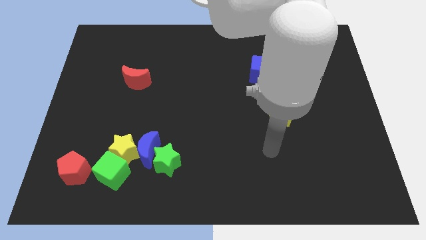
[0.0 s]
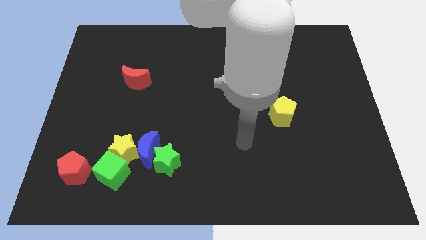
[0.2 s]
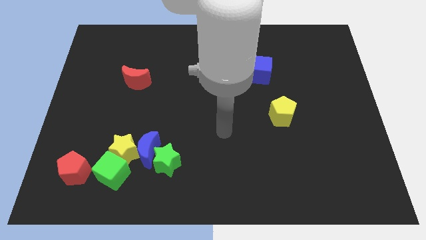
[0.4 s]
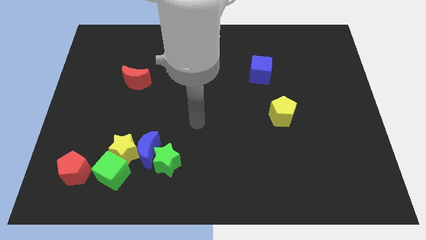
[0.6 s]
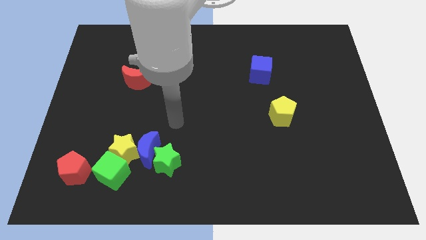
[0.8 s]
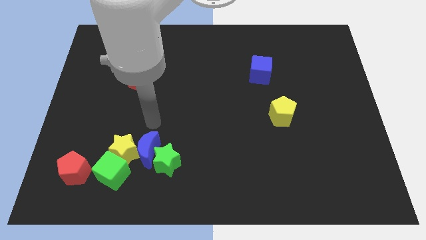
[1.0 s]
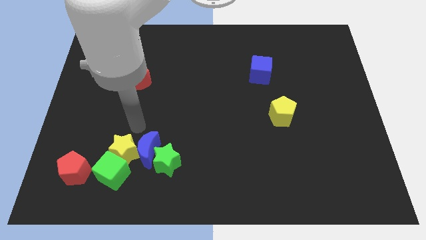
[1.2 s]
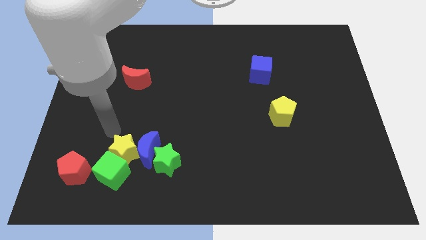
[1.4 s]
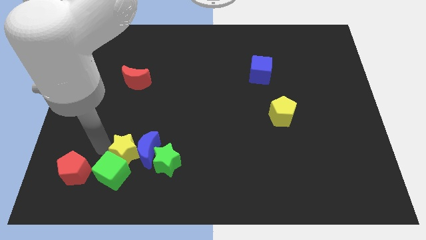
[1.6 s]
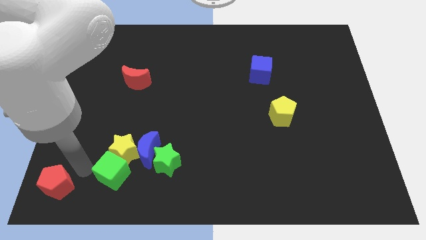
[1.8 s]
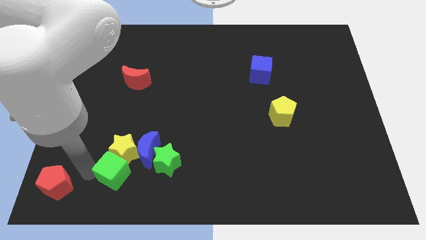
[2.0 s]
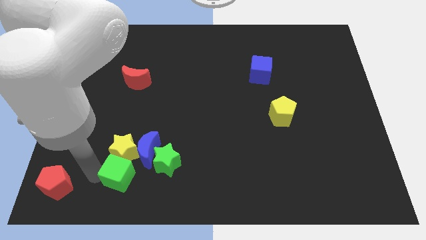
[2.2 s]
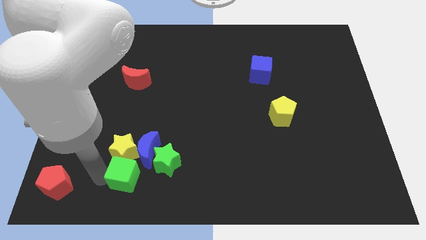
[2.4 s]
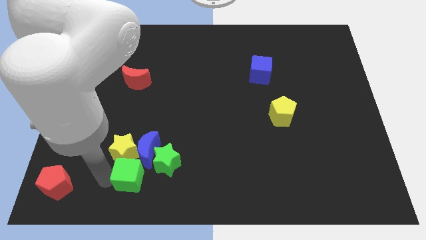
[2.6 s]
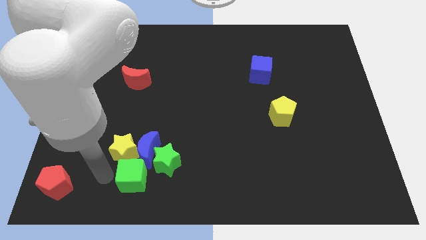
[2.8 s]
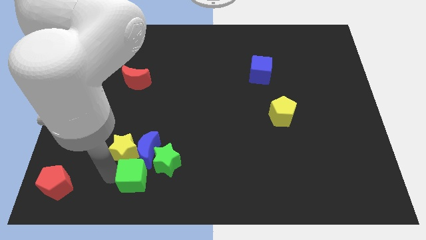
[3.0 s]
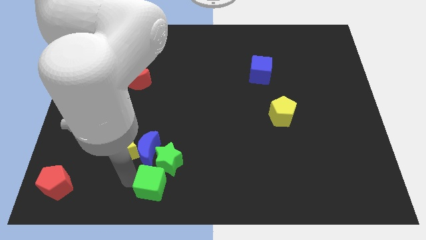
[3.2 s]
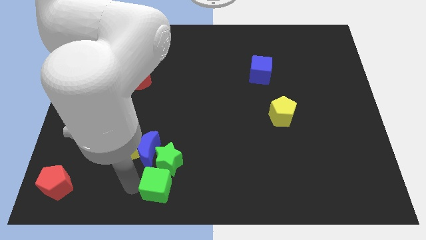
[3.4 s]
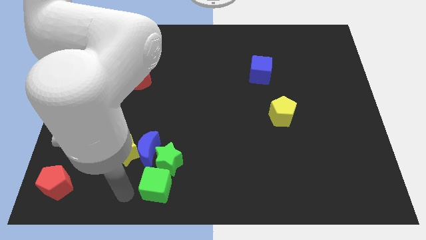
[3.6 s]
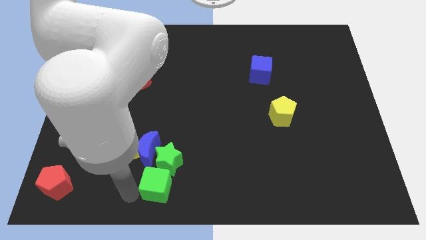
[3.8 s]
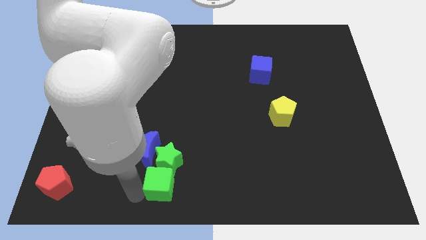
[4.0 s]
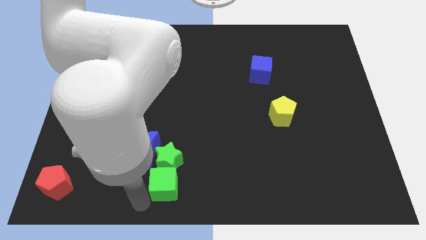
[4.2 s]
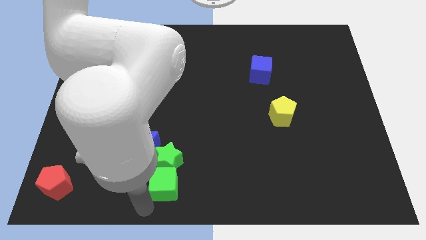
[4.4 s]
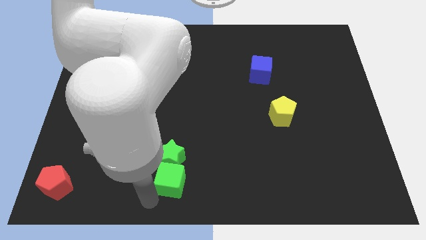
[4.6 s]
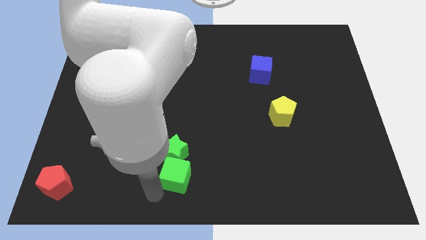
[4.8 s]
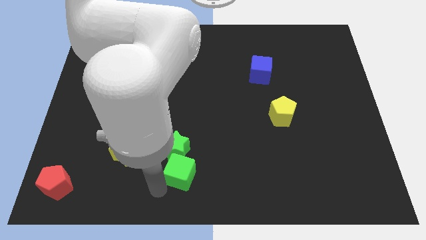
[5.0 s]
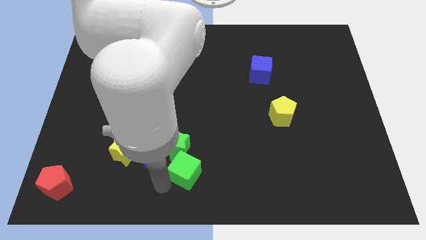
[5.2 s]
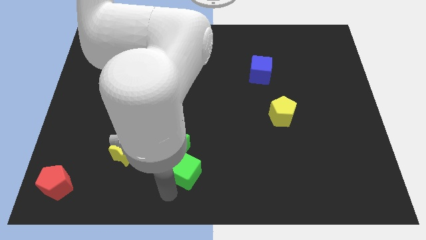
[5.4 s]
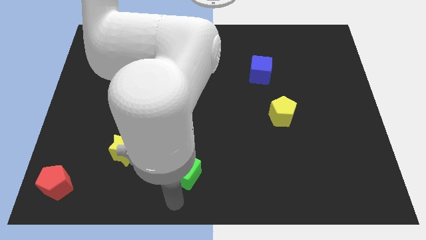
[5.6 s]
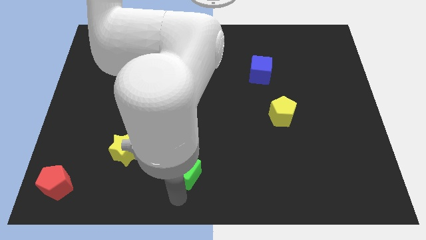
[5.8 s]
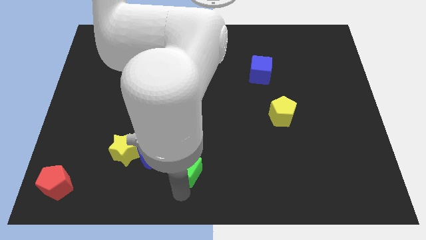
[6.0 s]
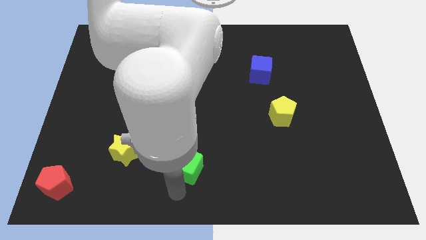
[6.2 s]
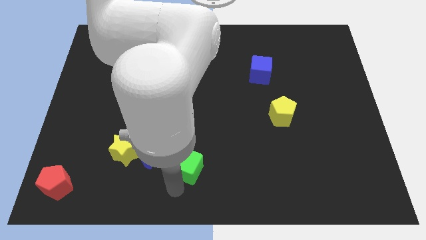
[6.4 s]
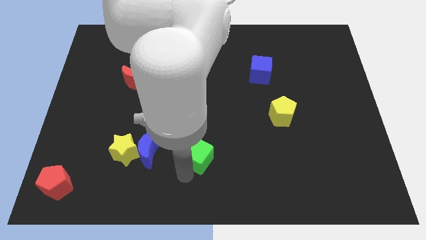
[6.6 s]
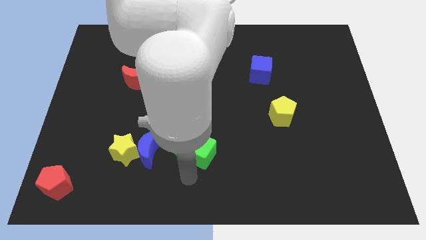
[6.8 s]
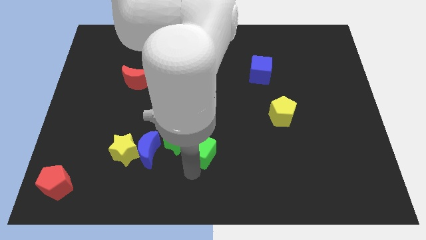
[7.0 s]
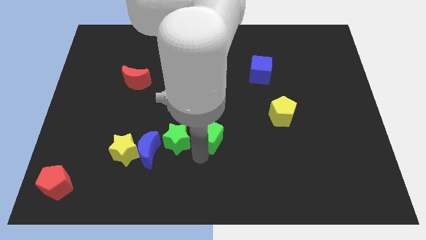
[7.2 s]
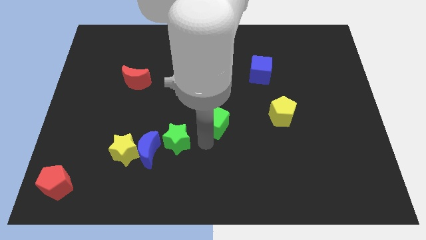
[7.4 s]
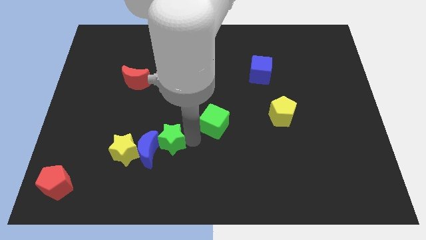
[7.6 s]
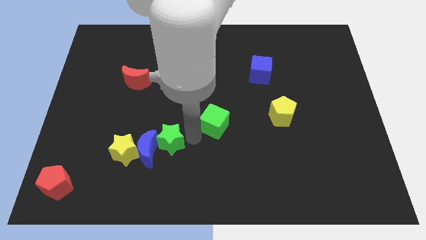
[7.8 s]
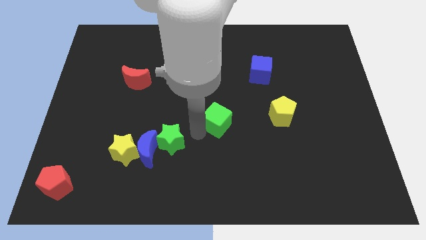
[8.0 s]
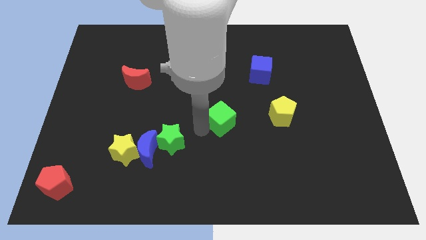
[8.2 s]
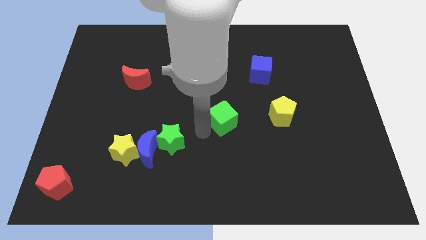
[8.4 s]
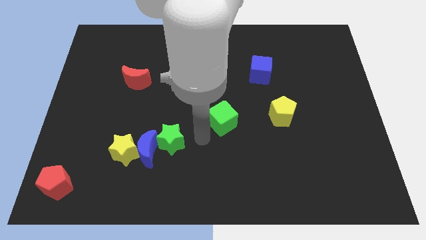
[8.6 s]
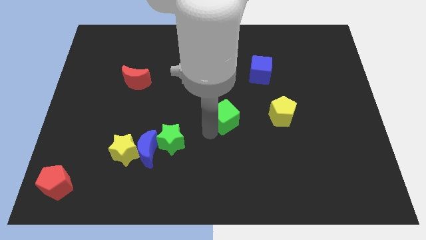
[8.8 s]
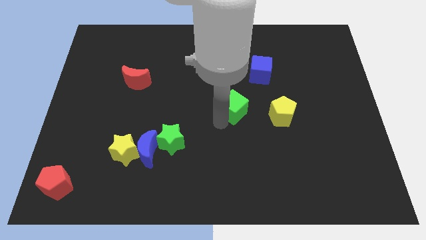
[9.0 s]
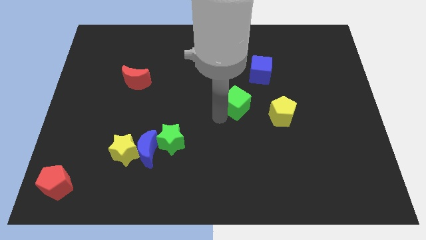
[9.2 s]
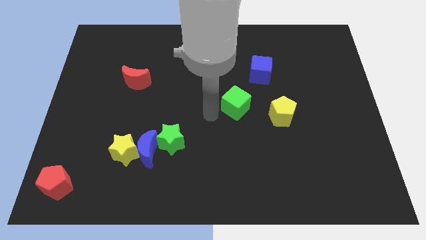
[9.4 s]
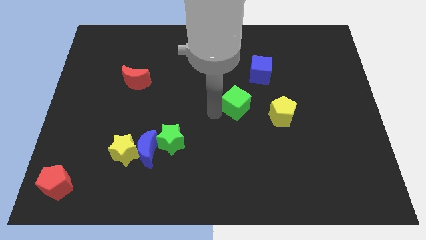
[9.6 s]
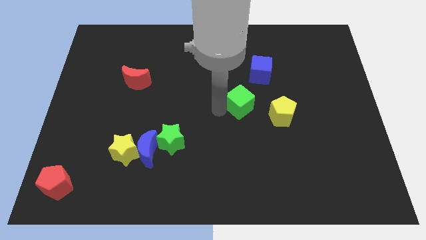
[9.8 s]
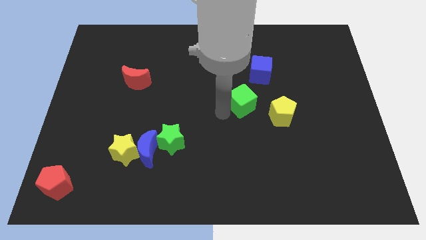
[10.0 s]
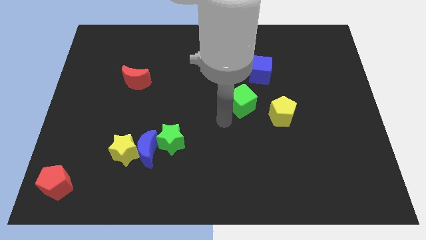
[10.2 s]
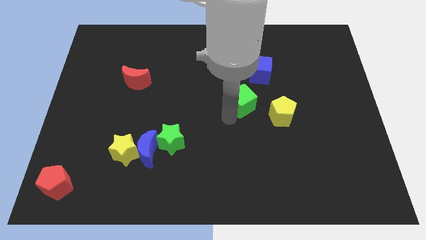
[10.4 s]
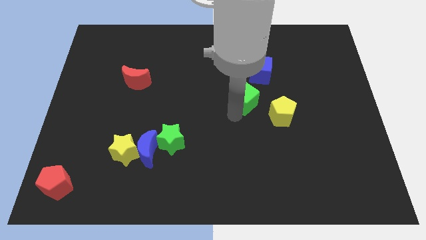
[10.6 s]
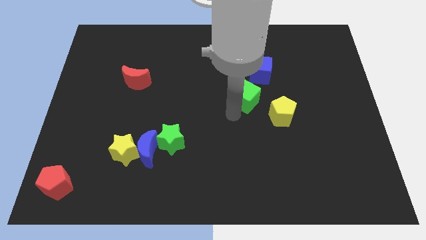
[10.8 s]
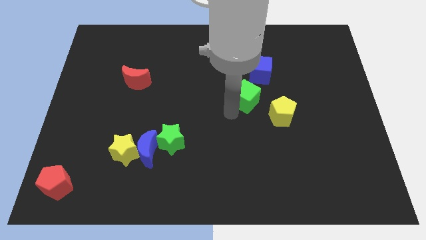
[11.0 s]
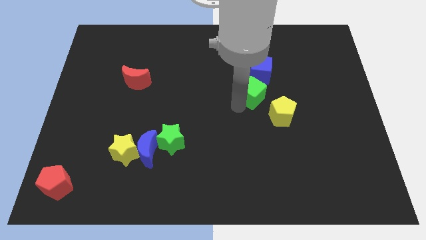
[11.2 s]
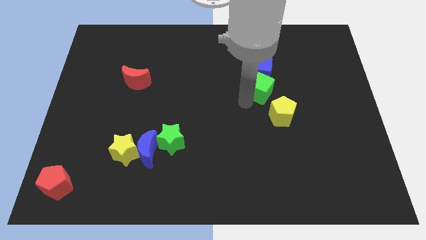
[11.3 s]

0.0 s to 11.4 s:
move the green cube close to the blue cube

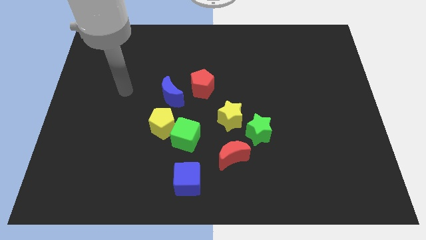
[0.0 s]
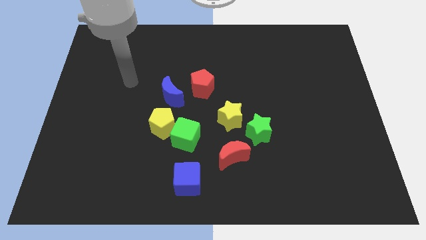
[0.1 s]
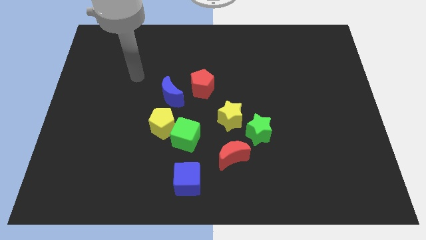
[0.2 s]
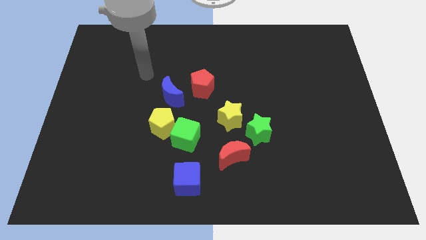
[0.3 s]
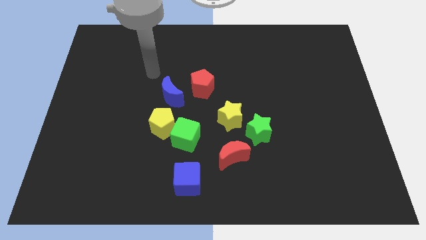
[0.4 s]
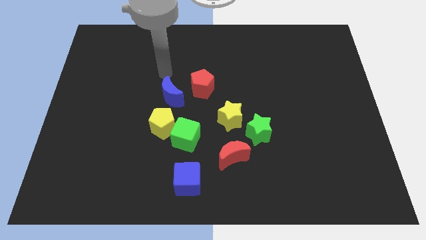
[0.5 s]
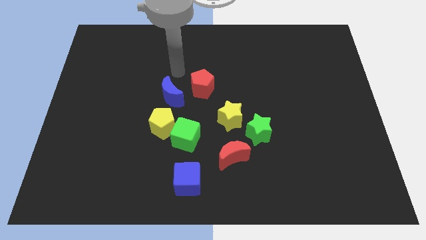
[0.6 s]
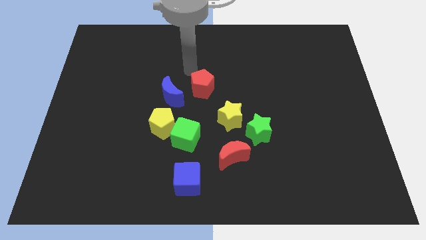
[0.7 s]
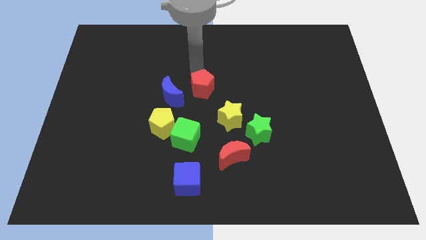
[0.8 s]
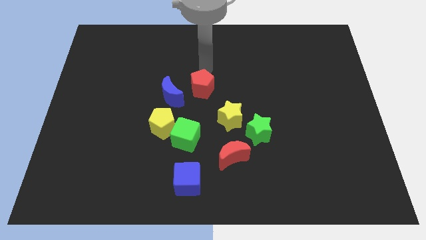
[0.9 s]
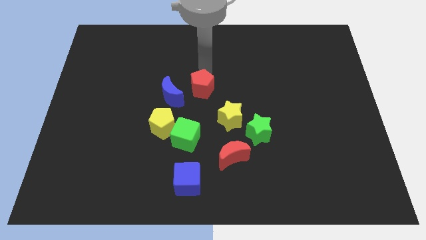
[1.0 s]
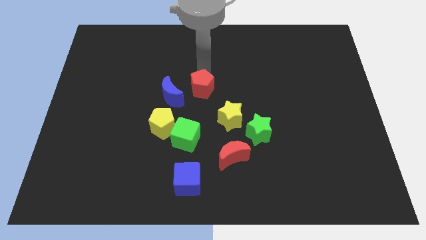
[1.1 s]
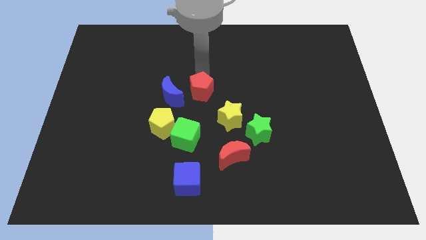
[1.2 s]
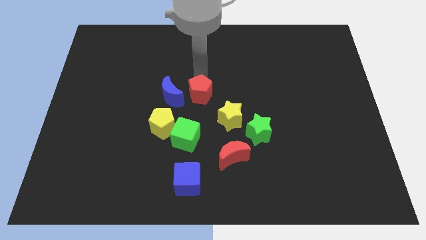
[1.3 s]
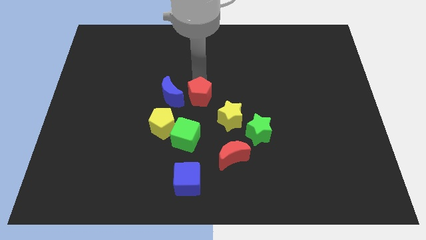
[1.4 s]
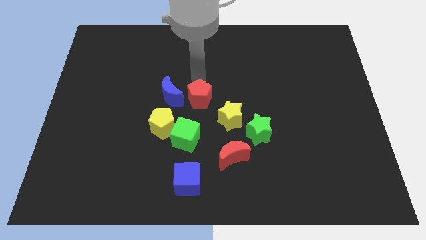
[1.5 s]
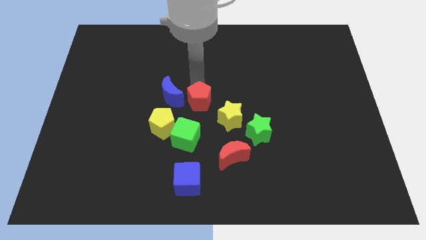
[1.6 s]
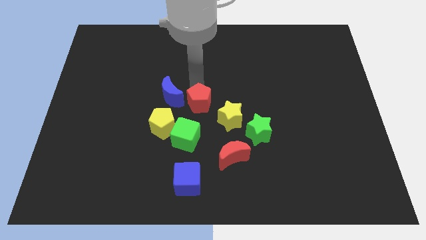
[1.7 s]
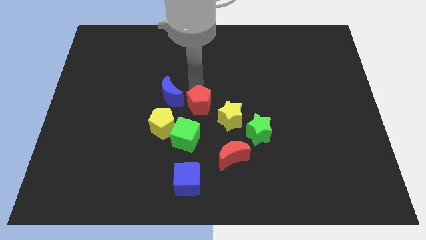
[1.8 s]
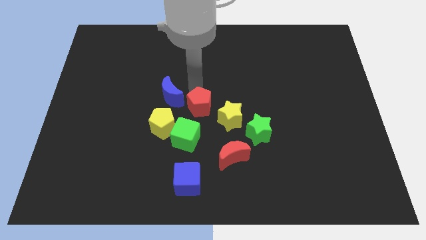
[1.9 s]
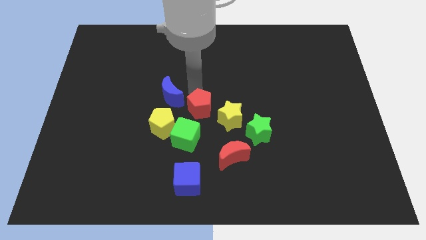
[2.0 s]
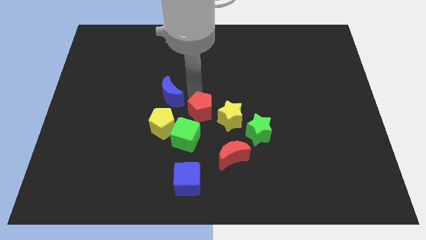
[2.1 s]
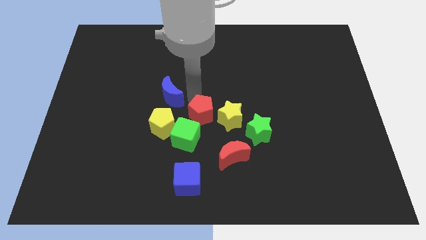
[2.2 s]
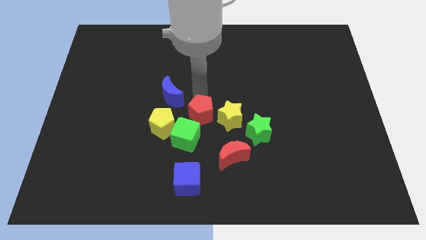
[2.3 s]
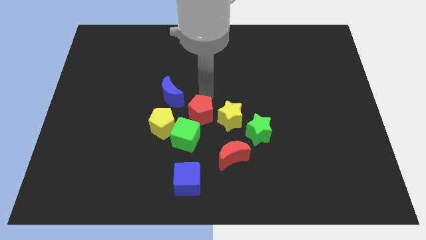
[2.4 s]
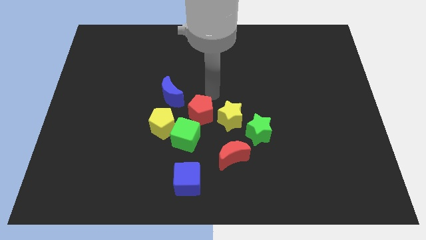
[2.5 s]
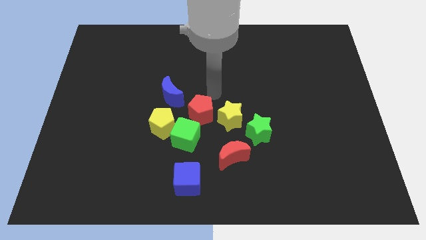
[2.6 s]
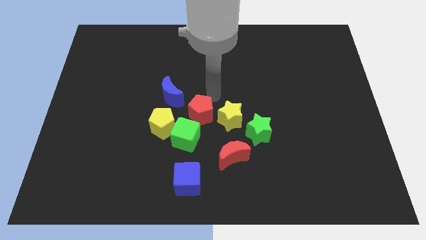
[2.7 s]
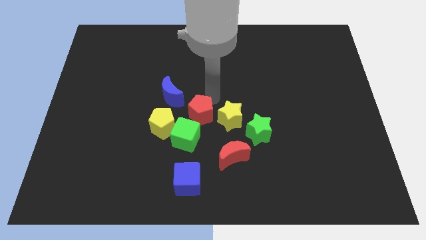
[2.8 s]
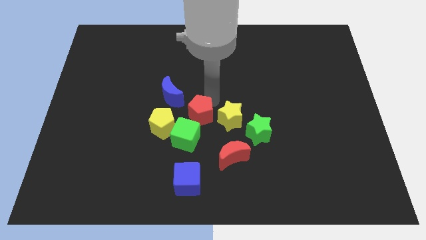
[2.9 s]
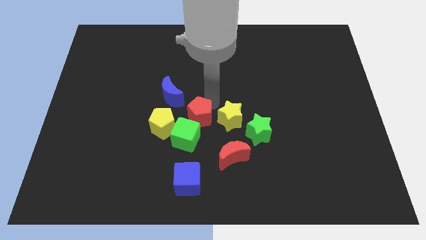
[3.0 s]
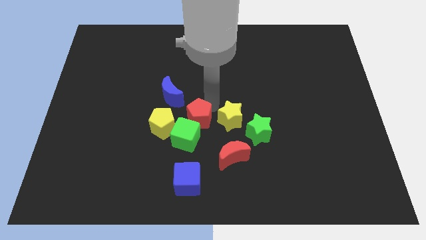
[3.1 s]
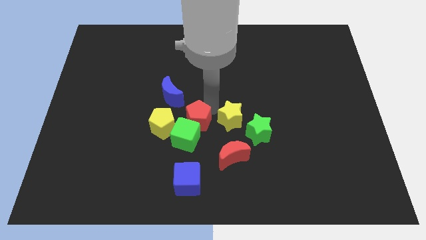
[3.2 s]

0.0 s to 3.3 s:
slide the red pentagon next to the green cube
